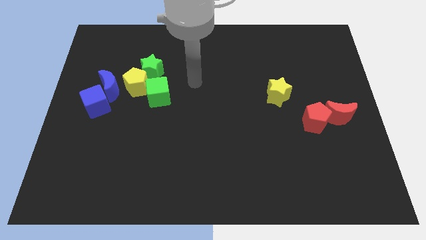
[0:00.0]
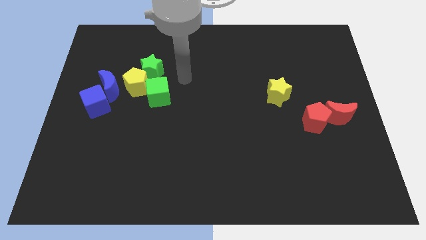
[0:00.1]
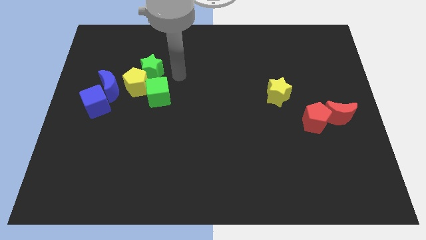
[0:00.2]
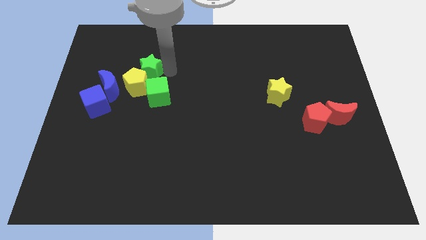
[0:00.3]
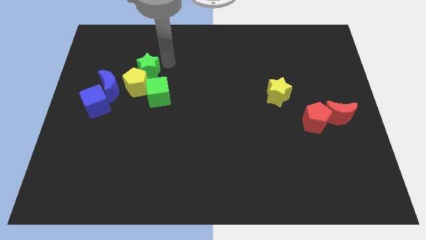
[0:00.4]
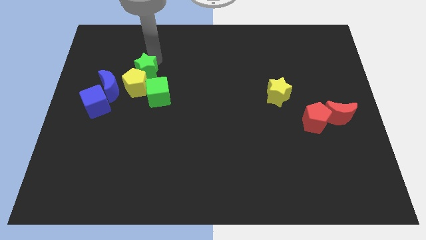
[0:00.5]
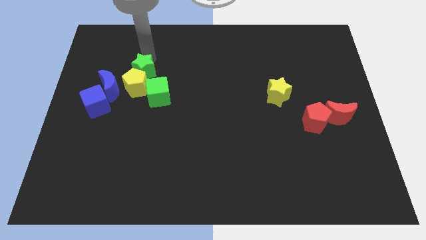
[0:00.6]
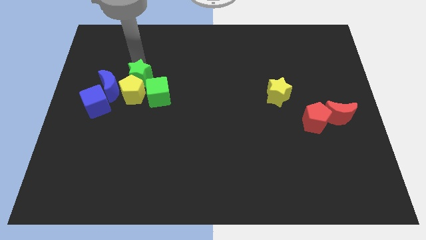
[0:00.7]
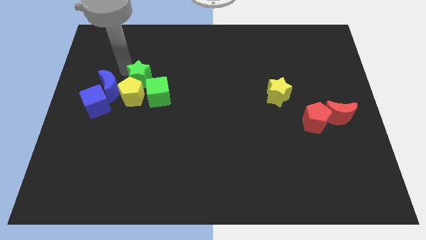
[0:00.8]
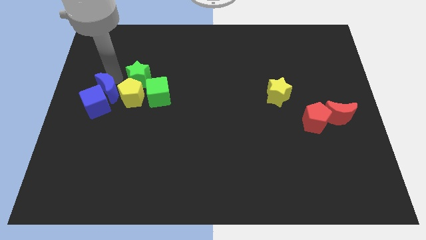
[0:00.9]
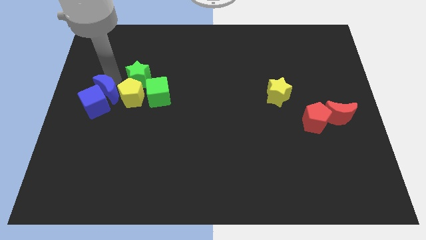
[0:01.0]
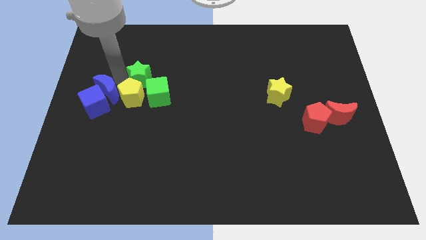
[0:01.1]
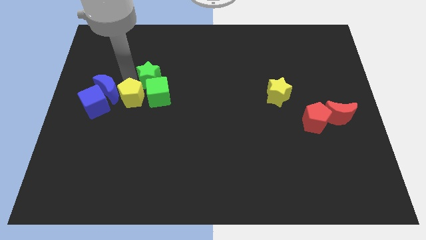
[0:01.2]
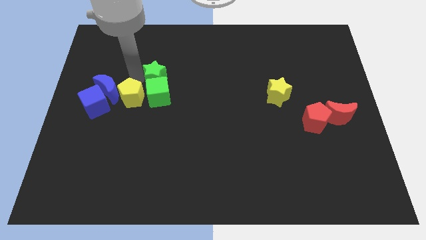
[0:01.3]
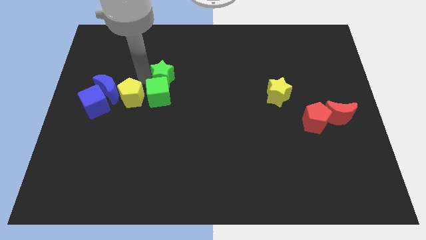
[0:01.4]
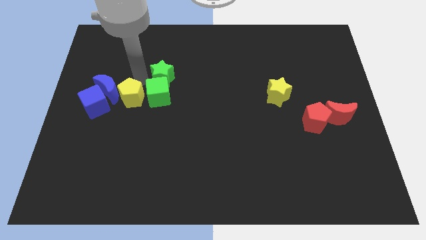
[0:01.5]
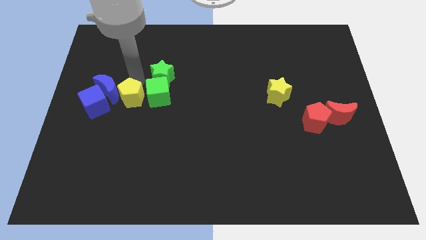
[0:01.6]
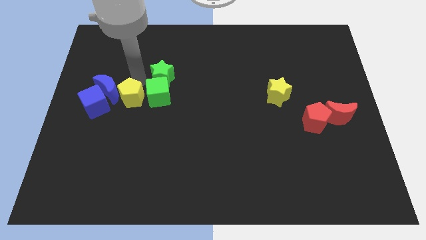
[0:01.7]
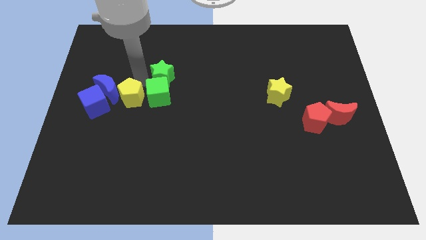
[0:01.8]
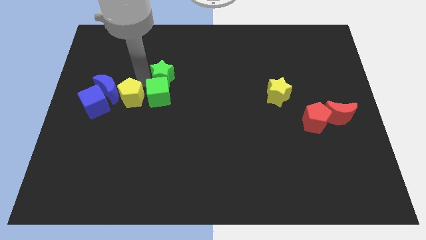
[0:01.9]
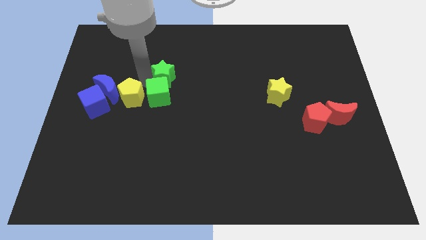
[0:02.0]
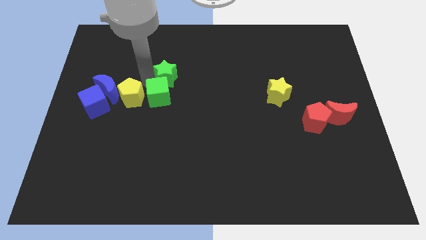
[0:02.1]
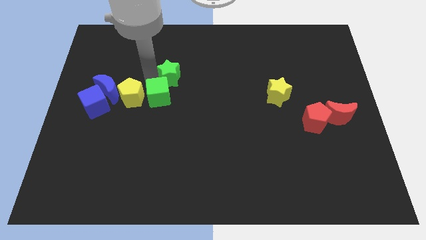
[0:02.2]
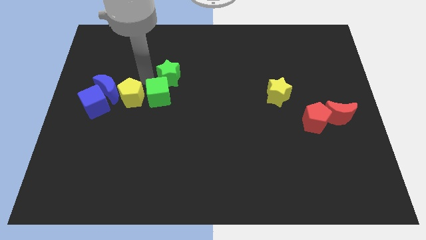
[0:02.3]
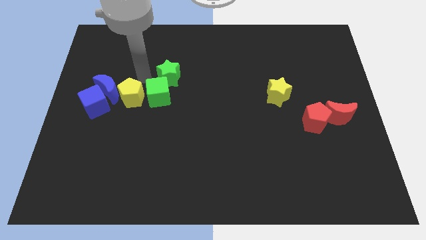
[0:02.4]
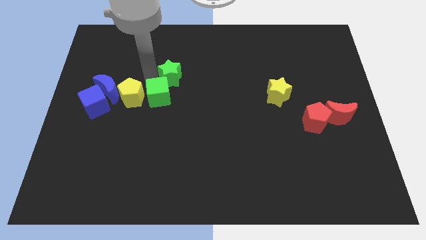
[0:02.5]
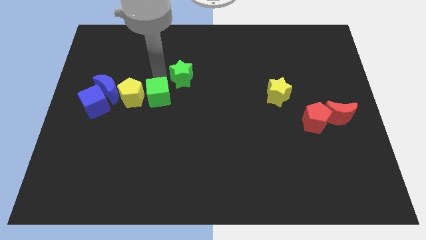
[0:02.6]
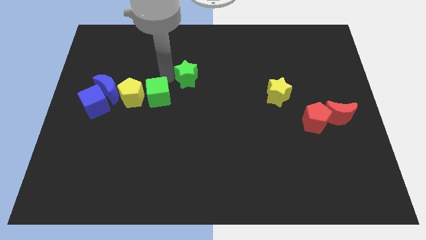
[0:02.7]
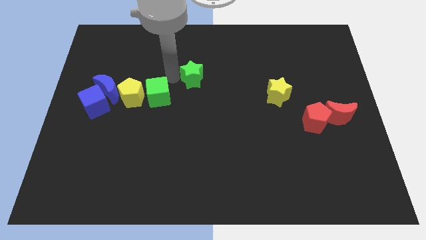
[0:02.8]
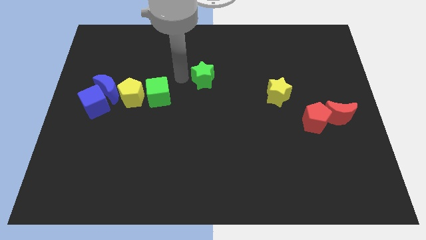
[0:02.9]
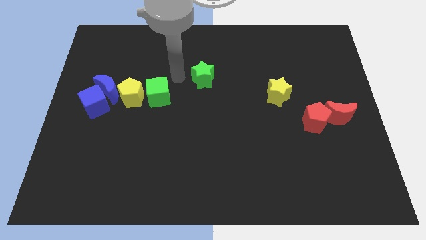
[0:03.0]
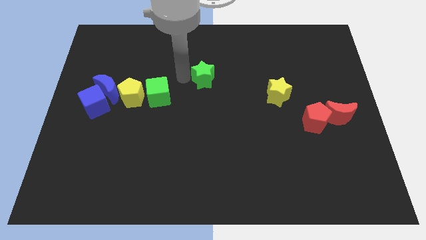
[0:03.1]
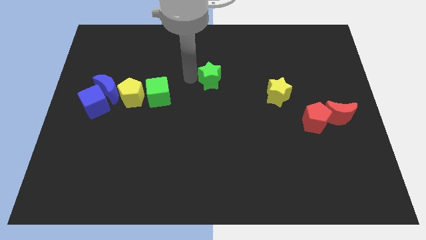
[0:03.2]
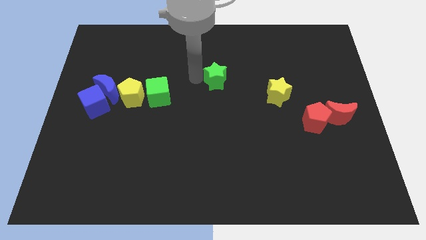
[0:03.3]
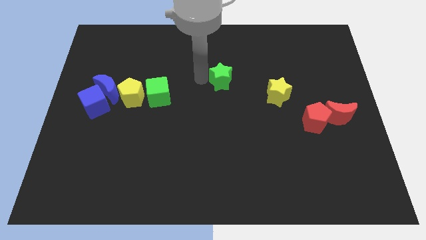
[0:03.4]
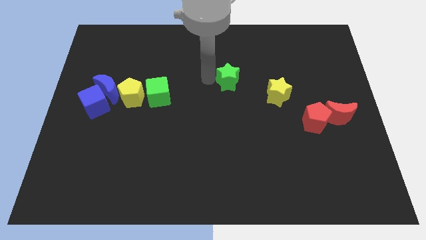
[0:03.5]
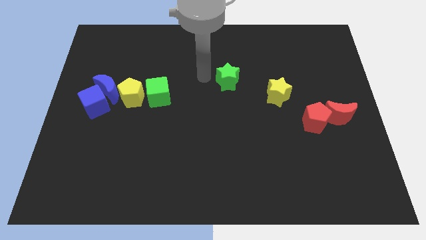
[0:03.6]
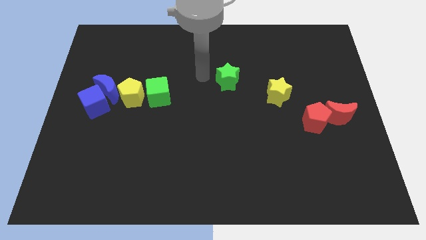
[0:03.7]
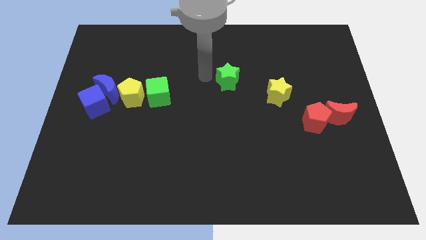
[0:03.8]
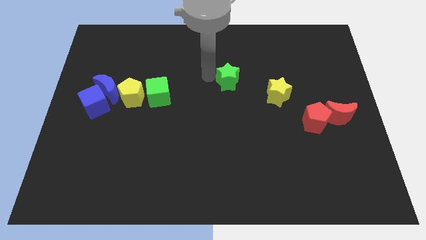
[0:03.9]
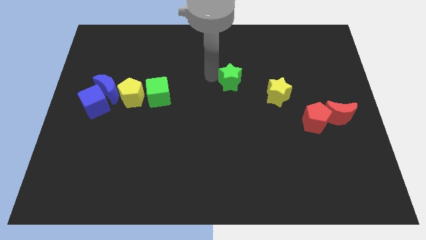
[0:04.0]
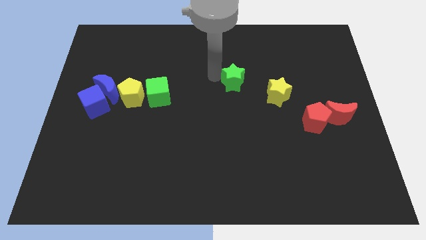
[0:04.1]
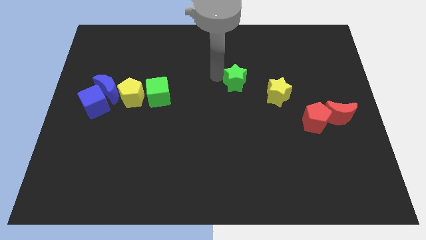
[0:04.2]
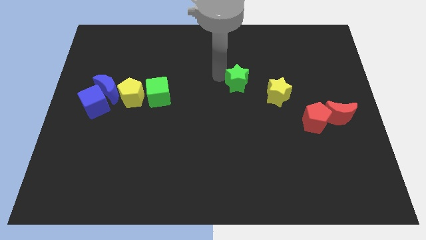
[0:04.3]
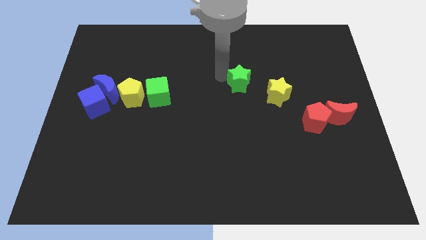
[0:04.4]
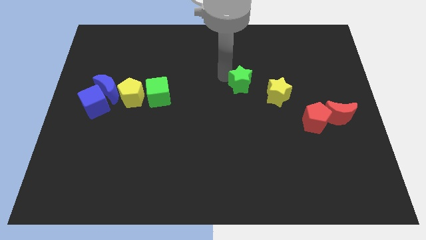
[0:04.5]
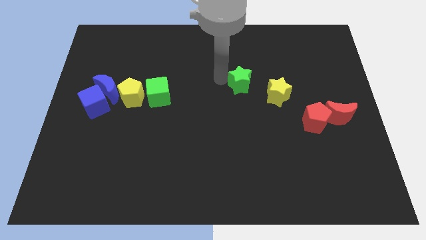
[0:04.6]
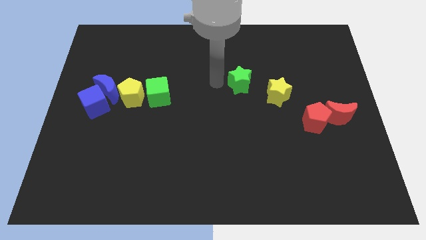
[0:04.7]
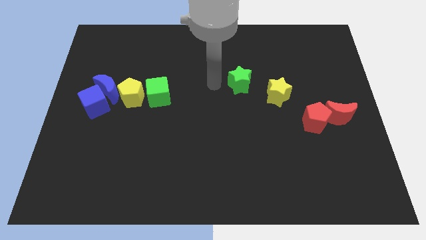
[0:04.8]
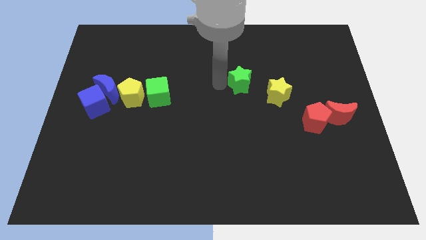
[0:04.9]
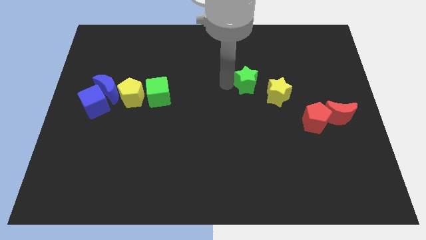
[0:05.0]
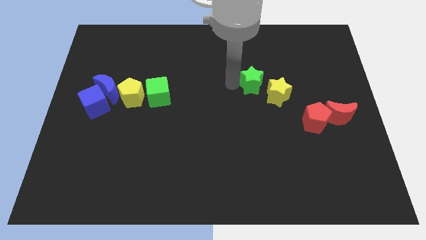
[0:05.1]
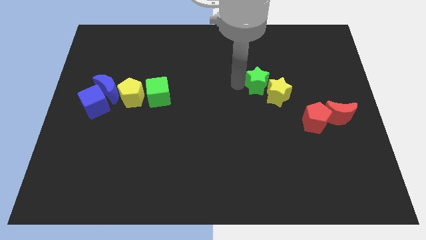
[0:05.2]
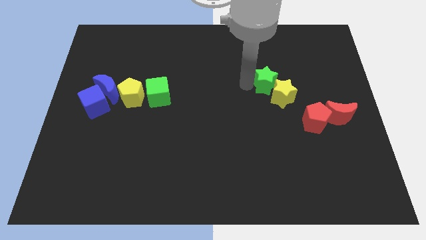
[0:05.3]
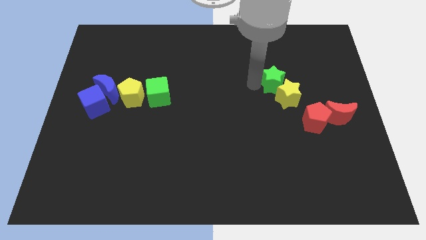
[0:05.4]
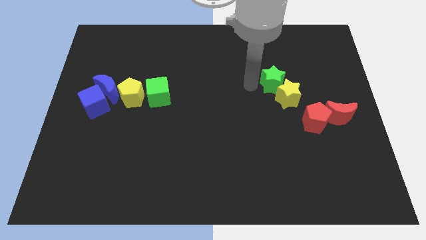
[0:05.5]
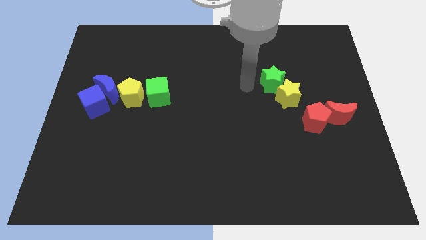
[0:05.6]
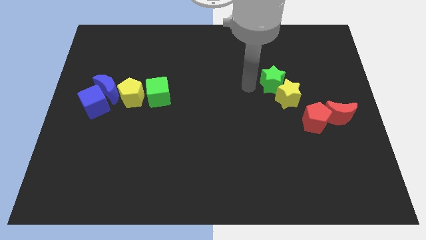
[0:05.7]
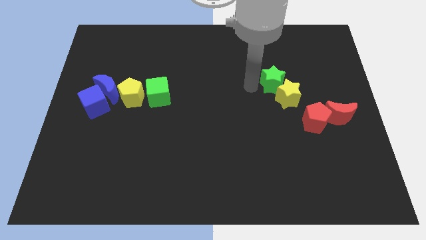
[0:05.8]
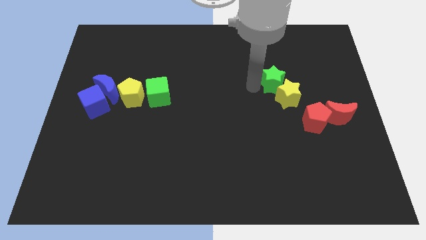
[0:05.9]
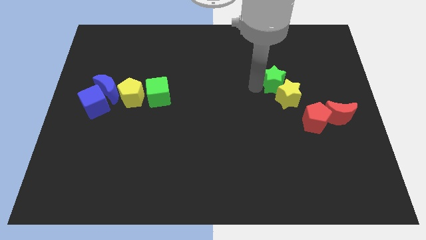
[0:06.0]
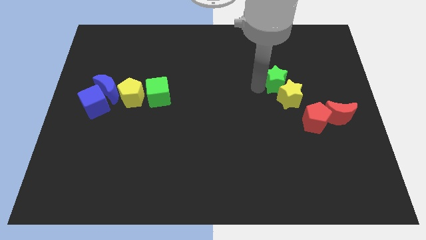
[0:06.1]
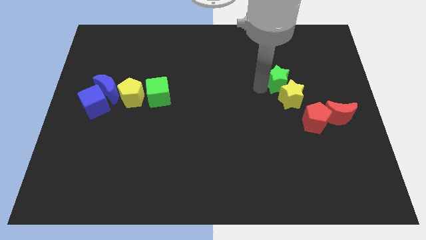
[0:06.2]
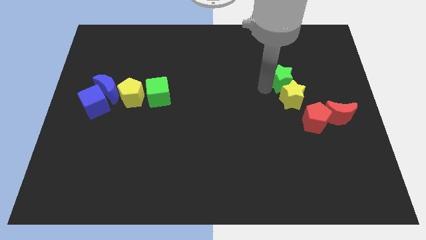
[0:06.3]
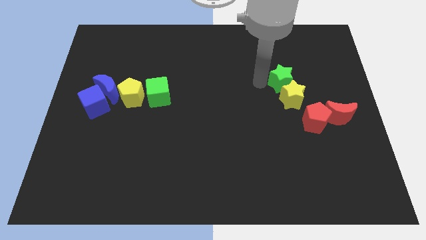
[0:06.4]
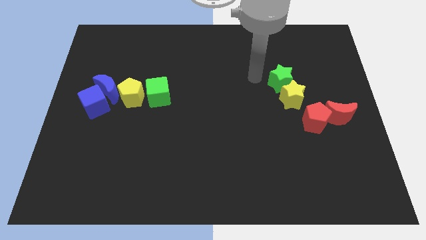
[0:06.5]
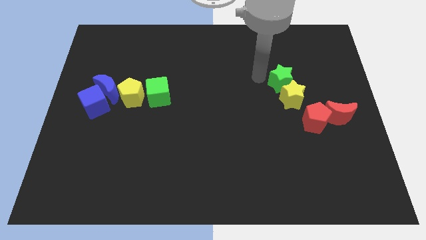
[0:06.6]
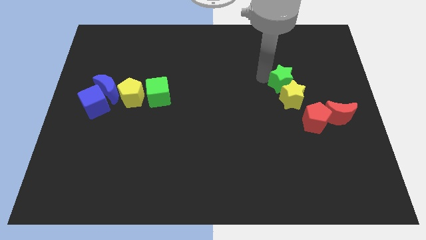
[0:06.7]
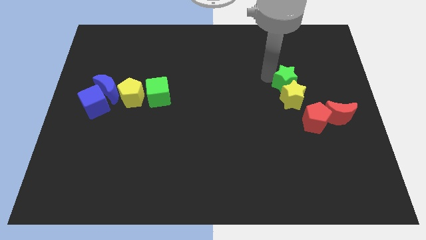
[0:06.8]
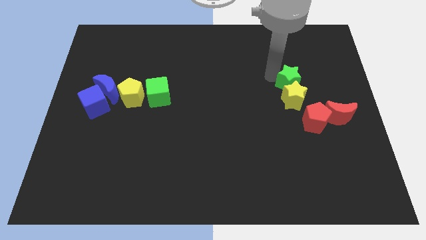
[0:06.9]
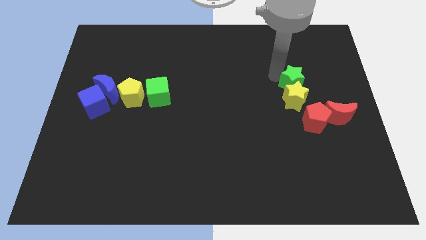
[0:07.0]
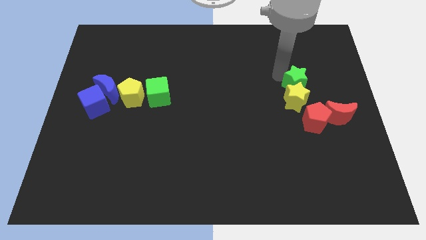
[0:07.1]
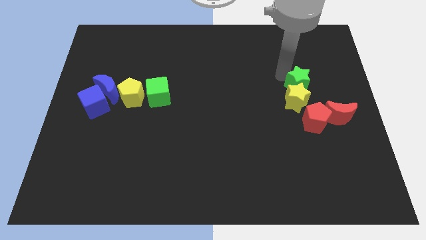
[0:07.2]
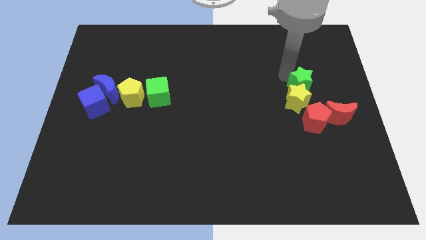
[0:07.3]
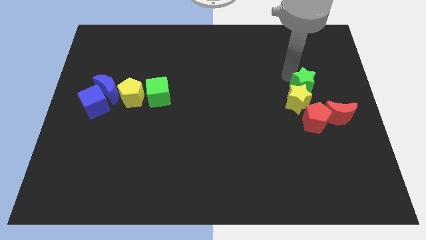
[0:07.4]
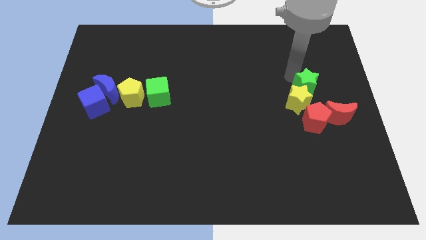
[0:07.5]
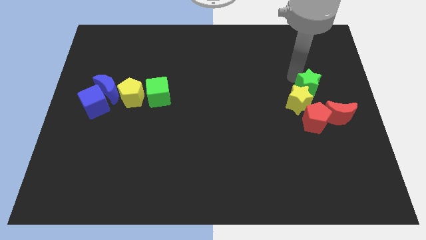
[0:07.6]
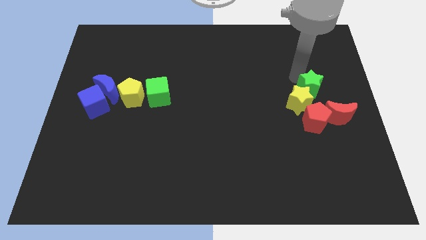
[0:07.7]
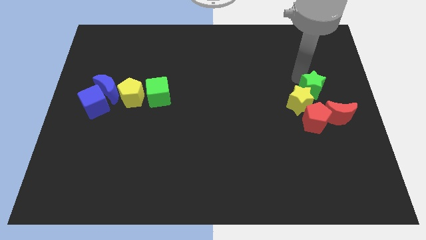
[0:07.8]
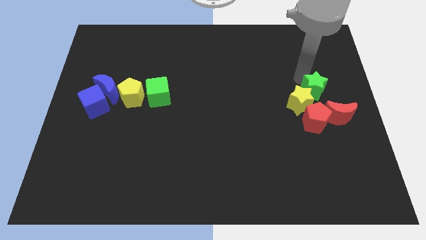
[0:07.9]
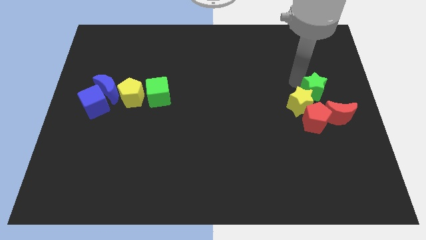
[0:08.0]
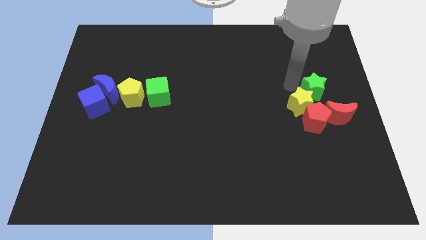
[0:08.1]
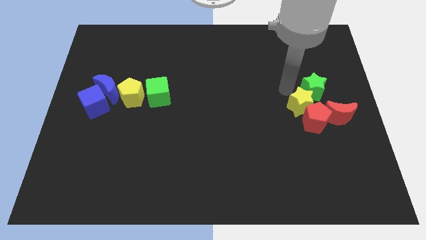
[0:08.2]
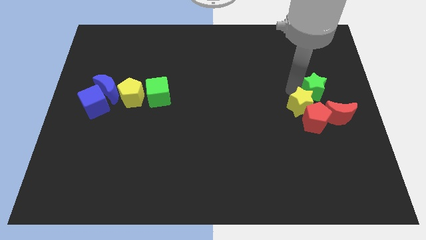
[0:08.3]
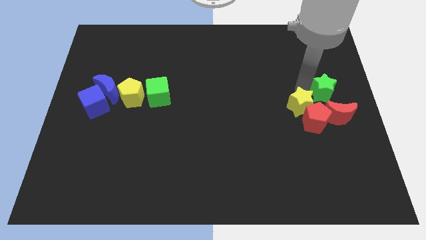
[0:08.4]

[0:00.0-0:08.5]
move the green star to the center right
